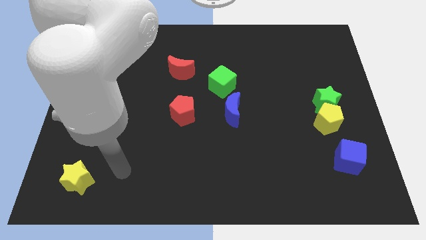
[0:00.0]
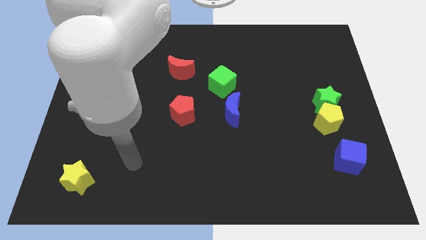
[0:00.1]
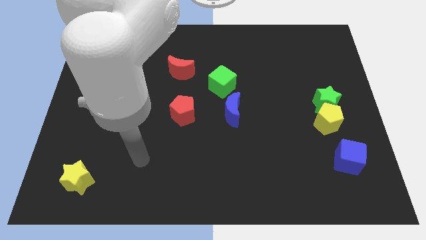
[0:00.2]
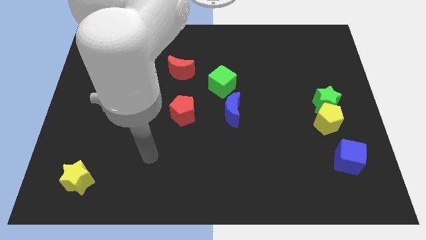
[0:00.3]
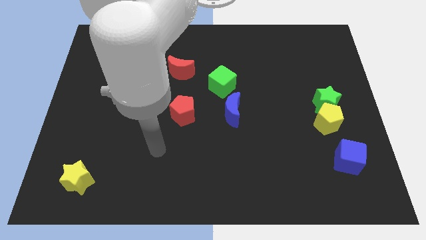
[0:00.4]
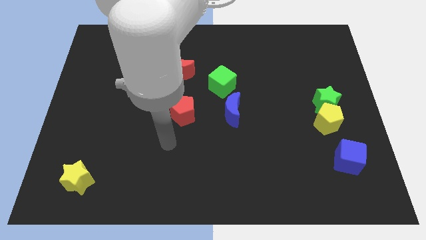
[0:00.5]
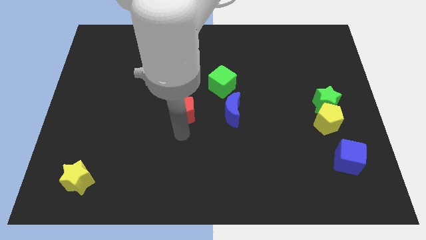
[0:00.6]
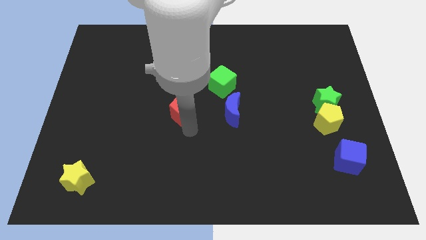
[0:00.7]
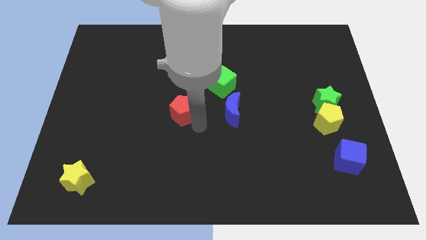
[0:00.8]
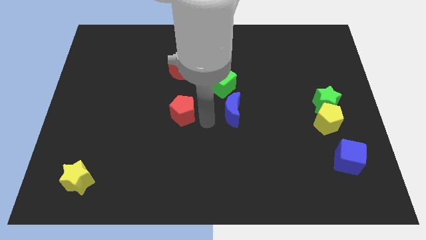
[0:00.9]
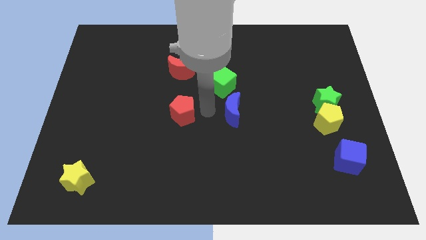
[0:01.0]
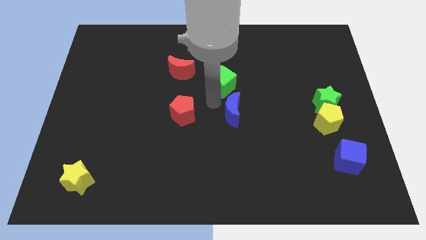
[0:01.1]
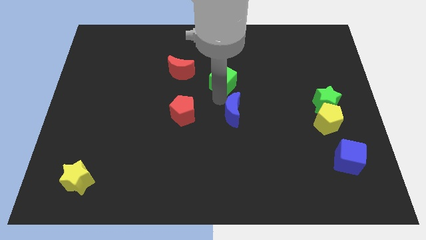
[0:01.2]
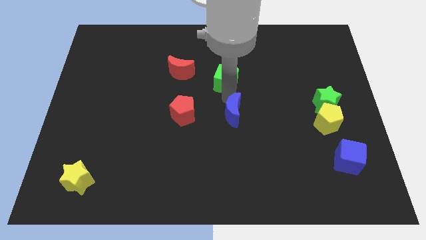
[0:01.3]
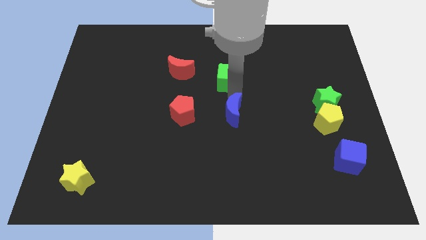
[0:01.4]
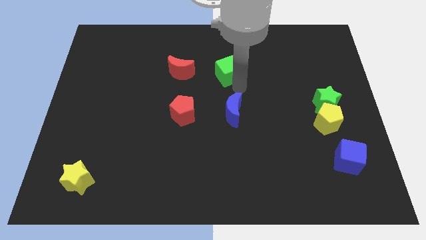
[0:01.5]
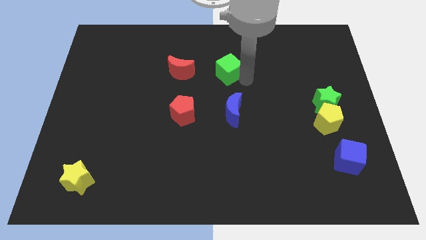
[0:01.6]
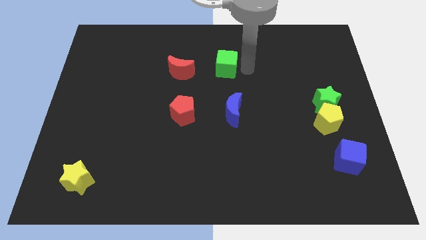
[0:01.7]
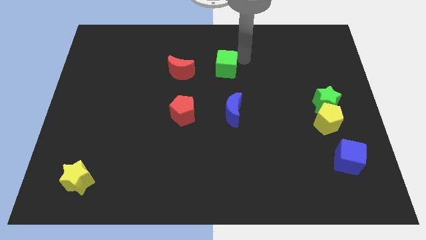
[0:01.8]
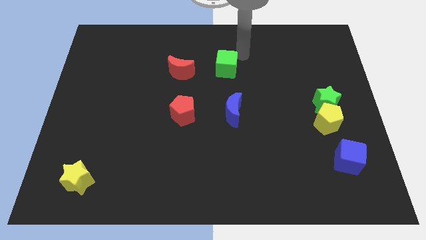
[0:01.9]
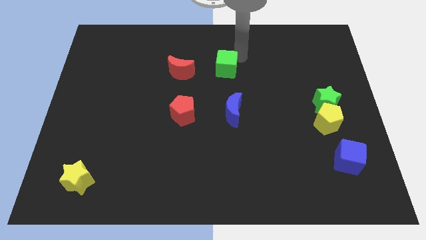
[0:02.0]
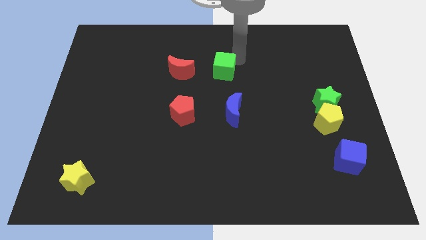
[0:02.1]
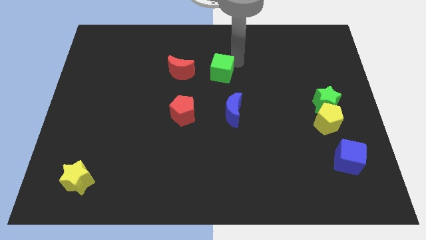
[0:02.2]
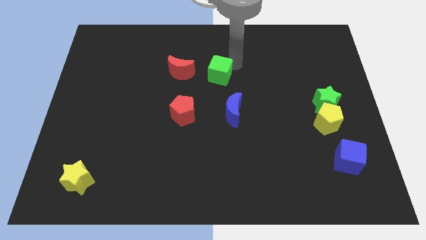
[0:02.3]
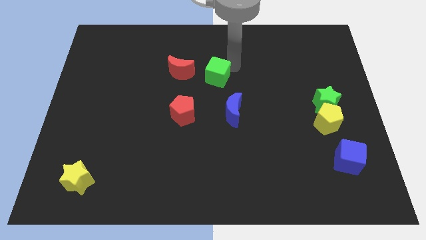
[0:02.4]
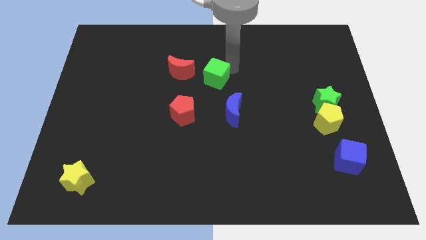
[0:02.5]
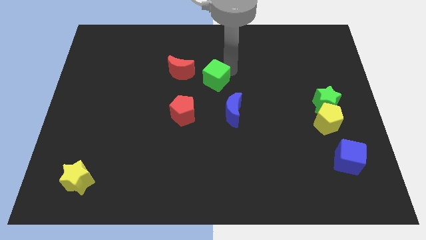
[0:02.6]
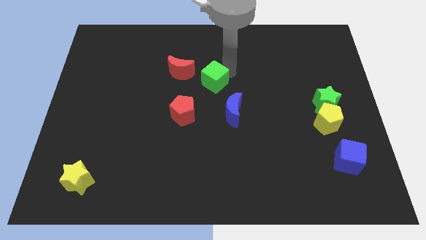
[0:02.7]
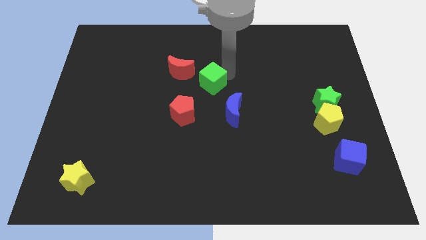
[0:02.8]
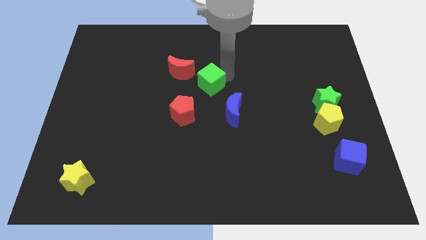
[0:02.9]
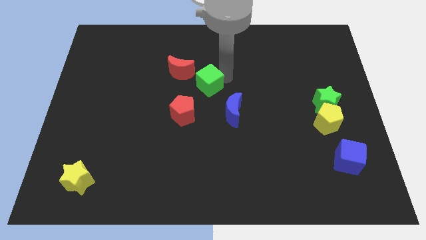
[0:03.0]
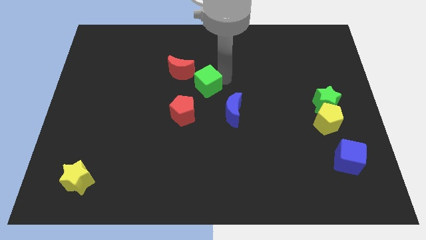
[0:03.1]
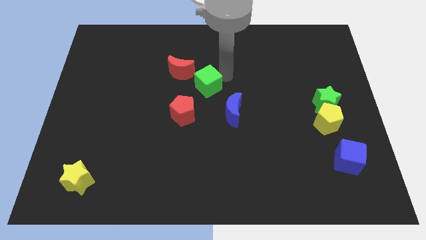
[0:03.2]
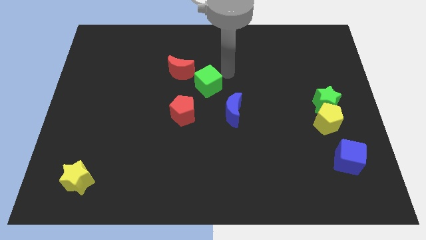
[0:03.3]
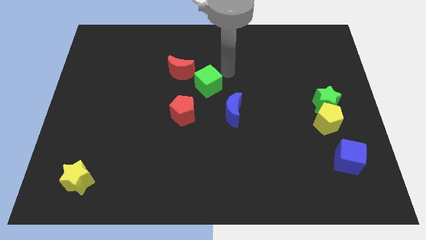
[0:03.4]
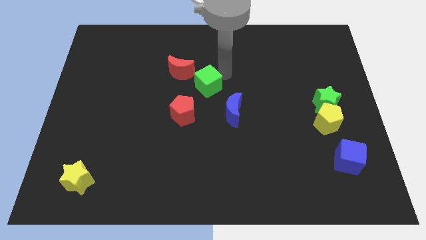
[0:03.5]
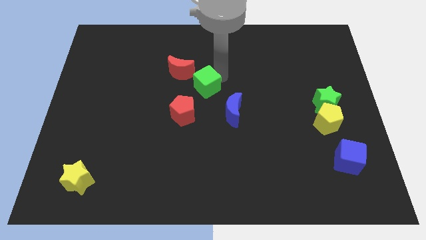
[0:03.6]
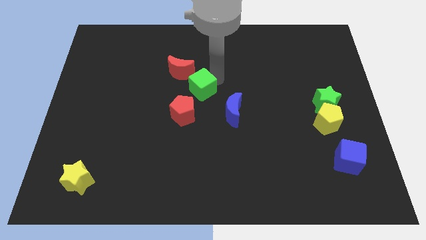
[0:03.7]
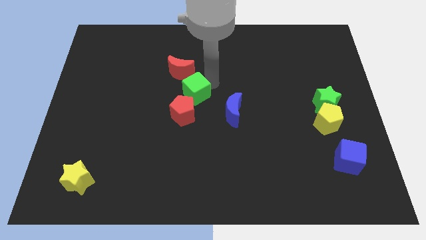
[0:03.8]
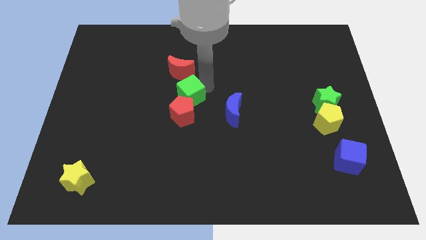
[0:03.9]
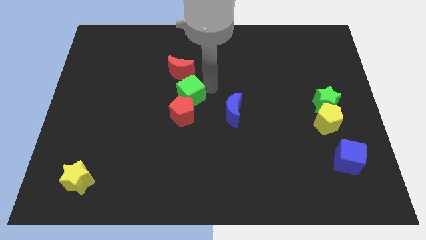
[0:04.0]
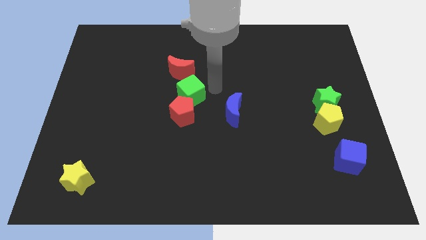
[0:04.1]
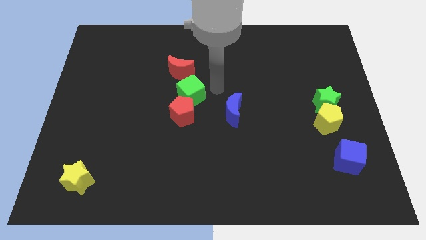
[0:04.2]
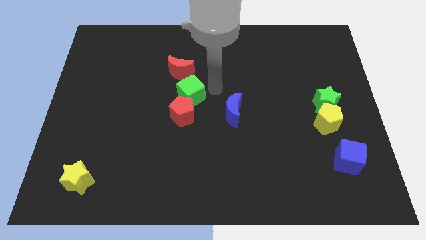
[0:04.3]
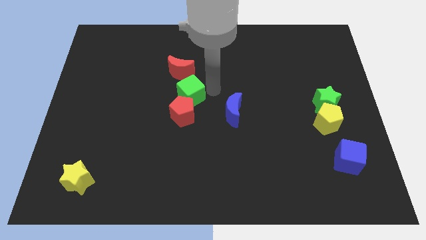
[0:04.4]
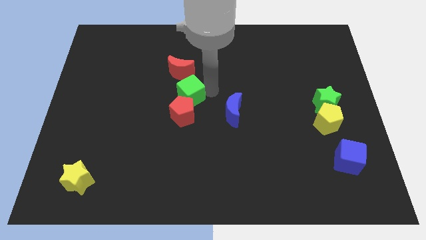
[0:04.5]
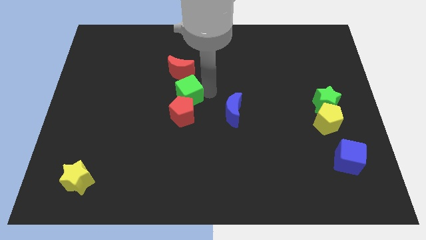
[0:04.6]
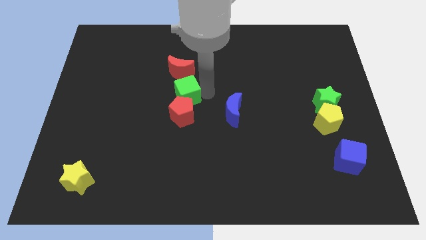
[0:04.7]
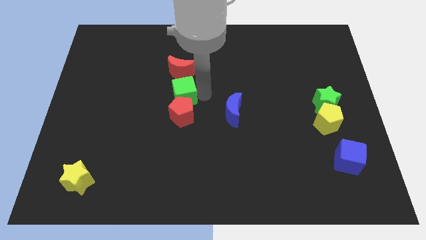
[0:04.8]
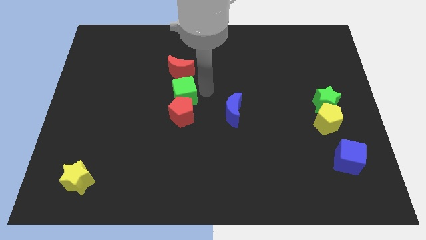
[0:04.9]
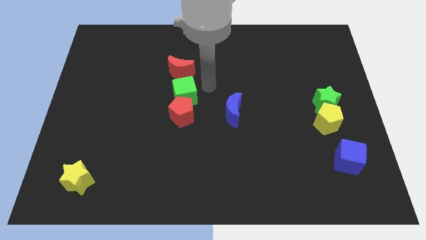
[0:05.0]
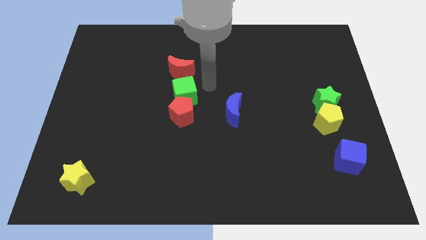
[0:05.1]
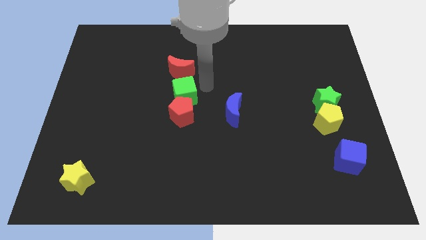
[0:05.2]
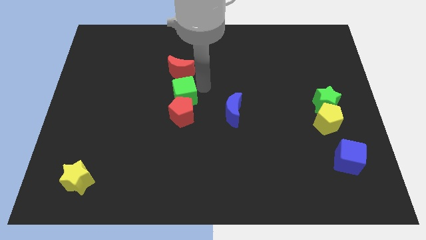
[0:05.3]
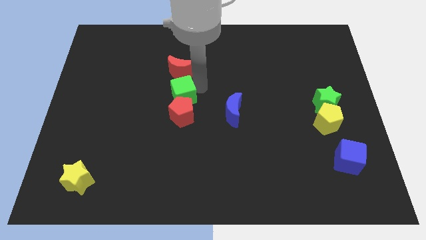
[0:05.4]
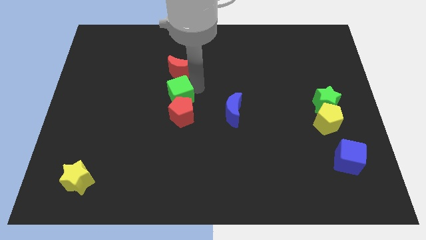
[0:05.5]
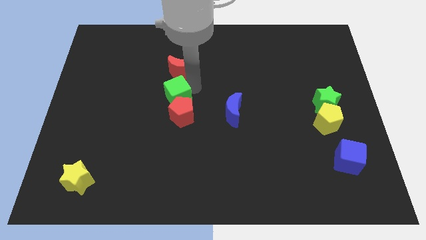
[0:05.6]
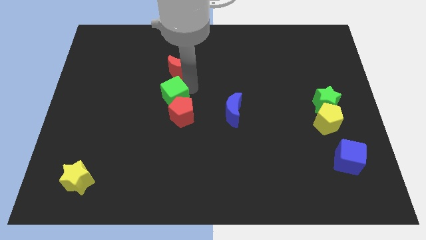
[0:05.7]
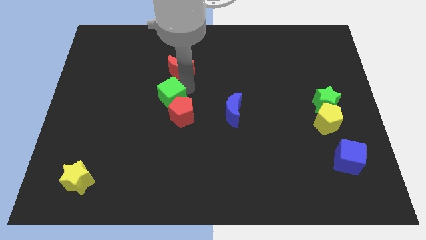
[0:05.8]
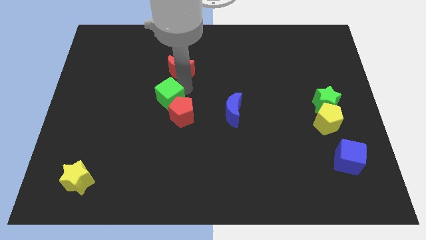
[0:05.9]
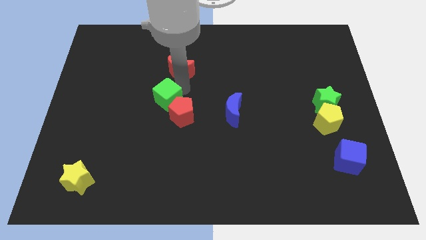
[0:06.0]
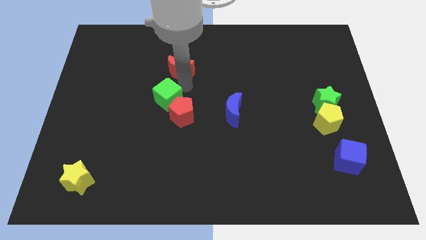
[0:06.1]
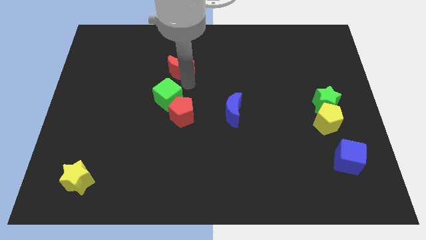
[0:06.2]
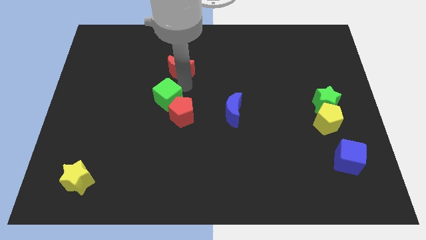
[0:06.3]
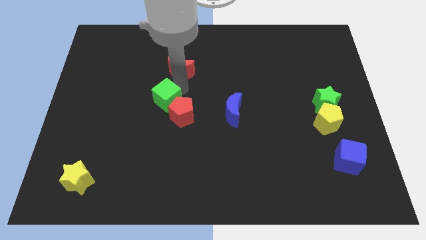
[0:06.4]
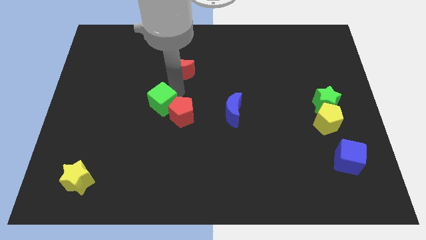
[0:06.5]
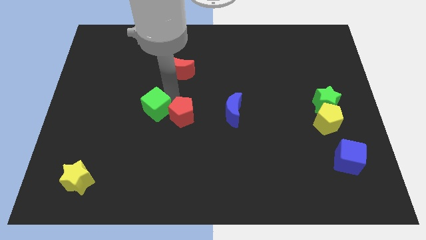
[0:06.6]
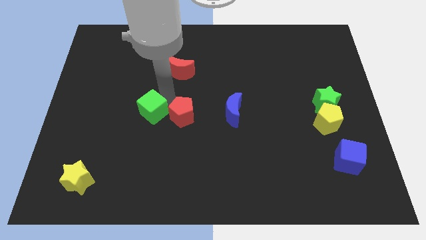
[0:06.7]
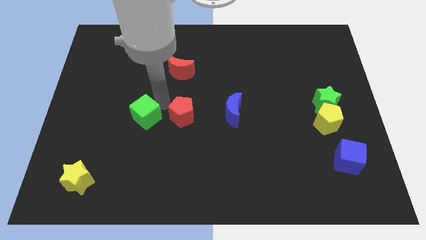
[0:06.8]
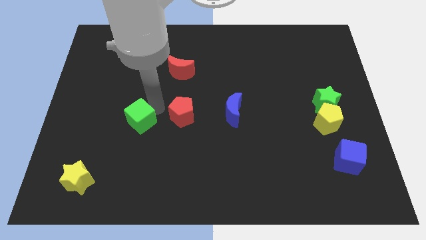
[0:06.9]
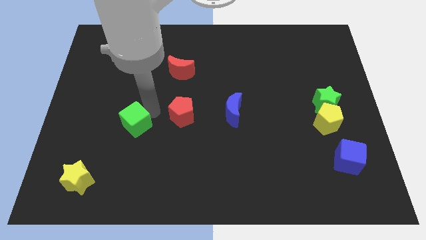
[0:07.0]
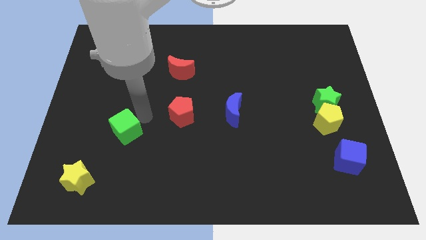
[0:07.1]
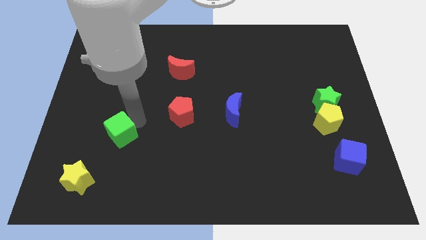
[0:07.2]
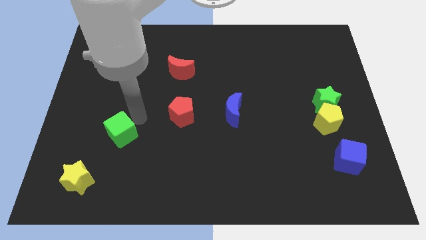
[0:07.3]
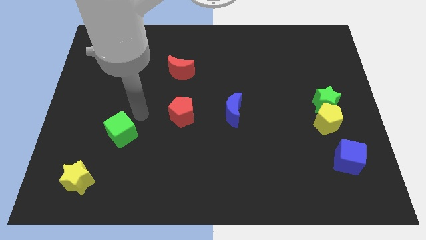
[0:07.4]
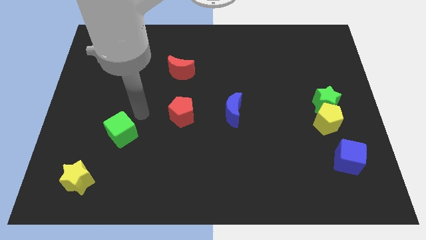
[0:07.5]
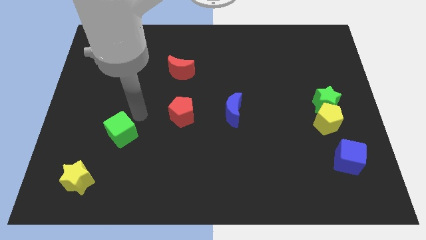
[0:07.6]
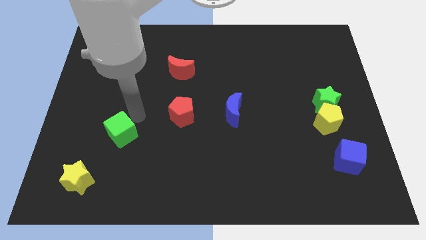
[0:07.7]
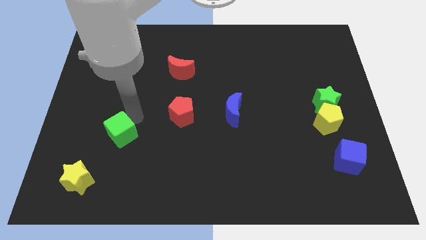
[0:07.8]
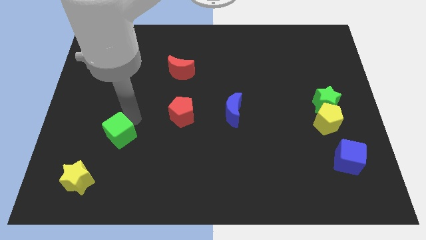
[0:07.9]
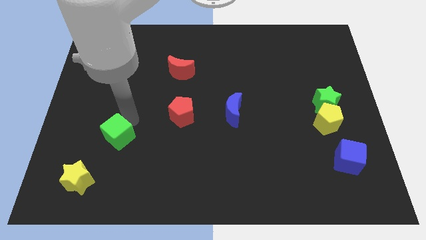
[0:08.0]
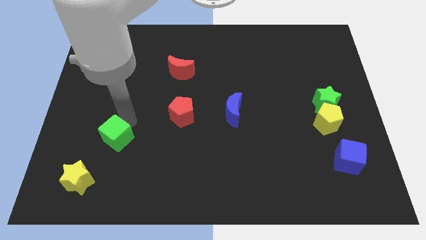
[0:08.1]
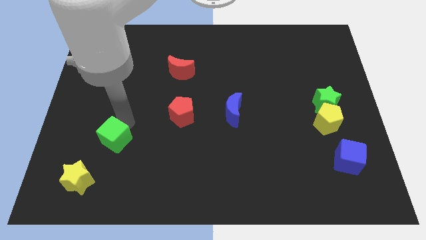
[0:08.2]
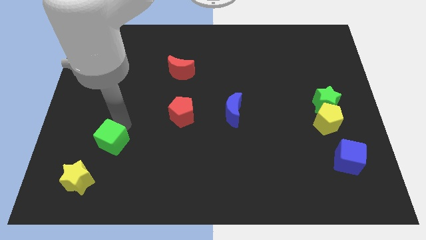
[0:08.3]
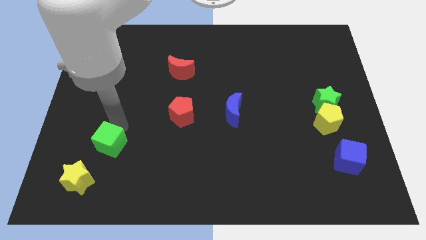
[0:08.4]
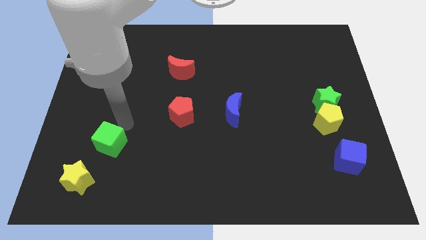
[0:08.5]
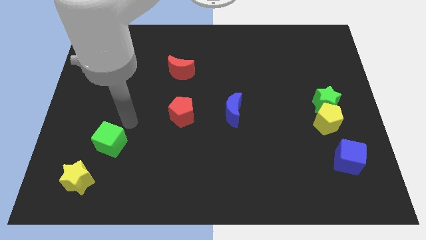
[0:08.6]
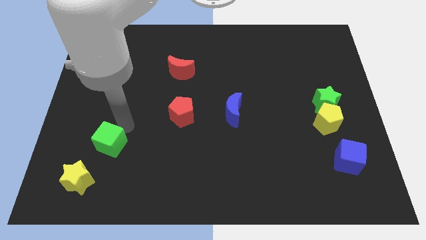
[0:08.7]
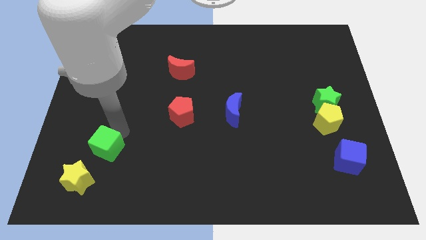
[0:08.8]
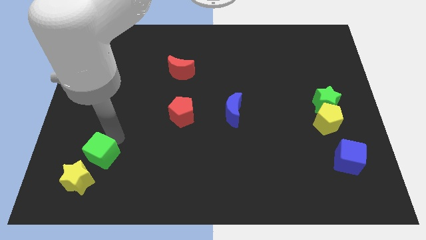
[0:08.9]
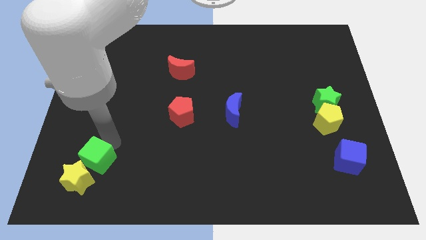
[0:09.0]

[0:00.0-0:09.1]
put the green cube close to the yellow star
